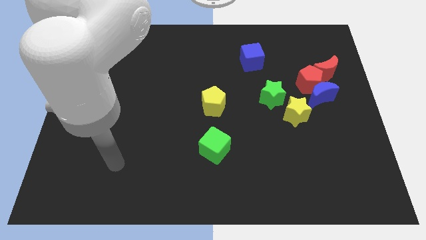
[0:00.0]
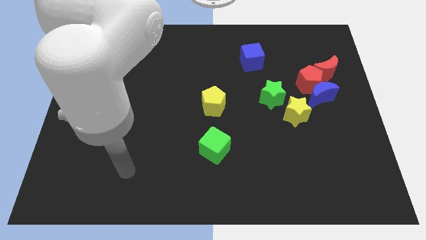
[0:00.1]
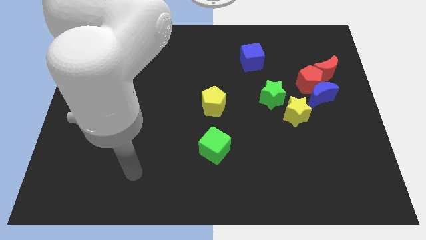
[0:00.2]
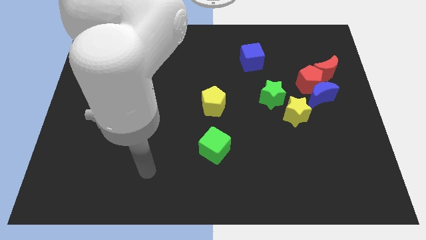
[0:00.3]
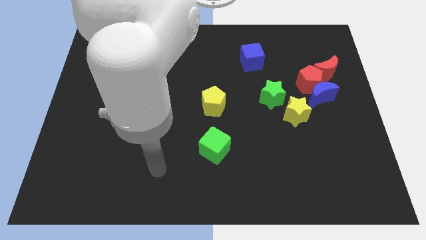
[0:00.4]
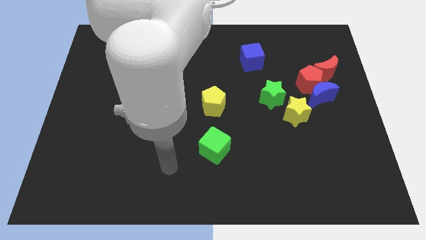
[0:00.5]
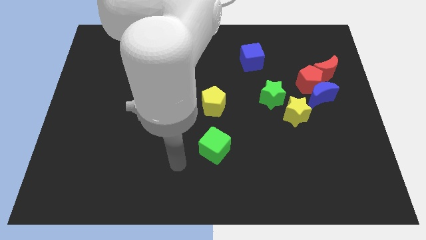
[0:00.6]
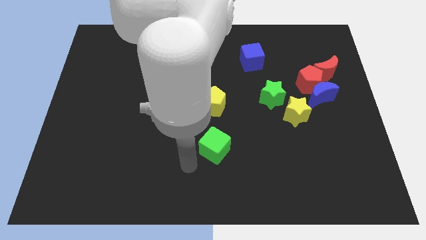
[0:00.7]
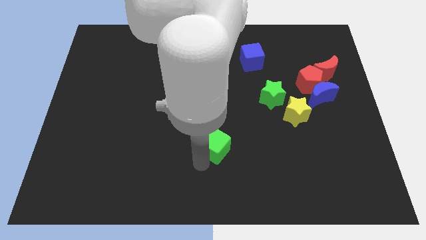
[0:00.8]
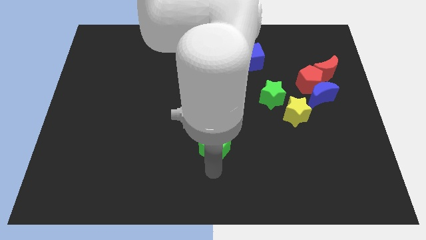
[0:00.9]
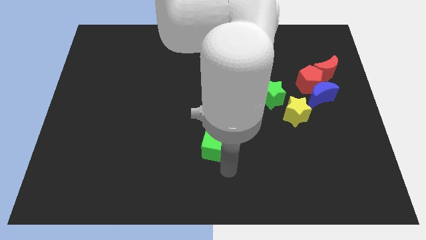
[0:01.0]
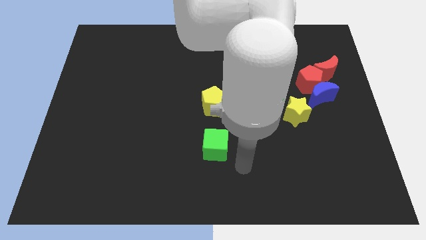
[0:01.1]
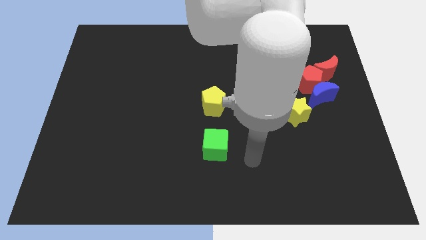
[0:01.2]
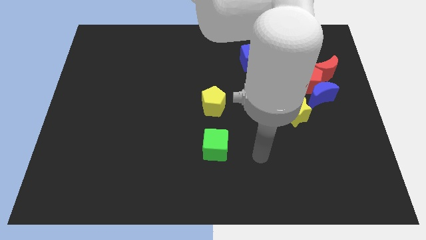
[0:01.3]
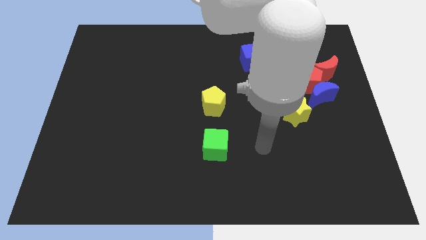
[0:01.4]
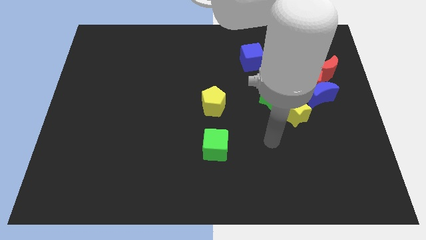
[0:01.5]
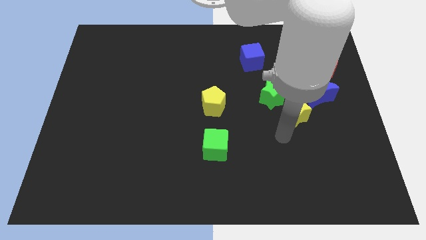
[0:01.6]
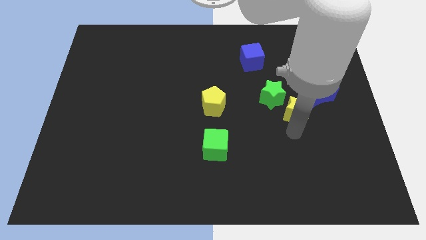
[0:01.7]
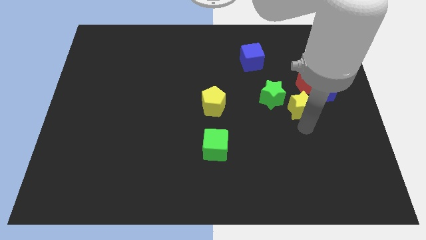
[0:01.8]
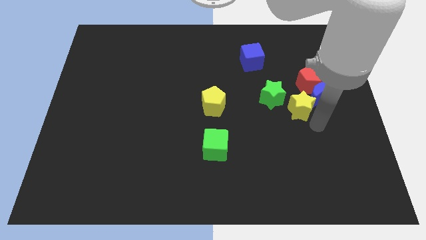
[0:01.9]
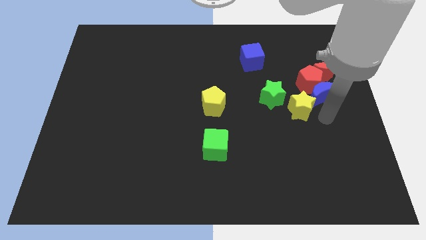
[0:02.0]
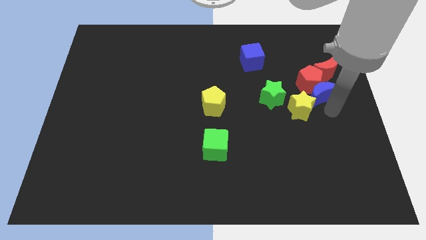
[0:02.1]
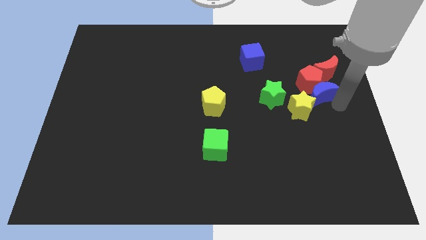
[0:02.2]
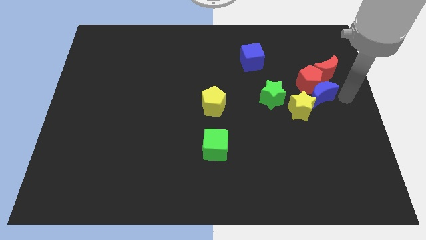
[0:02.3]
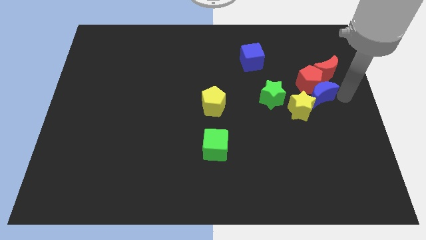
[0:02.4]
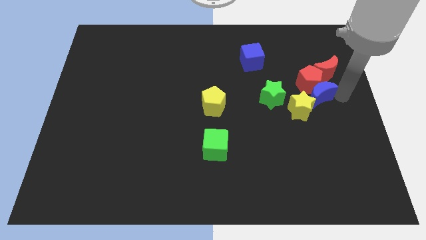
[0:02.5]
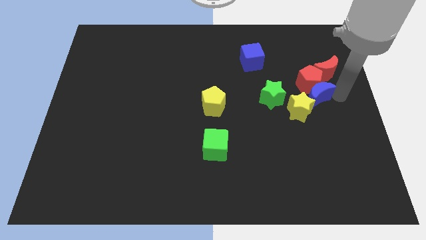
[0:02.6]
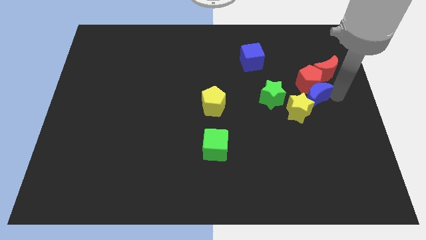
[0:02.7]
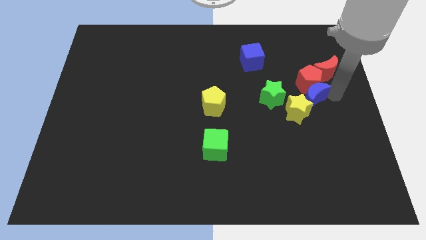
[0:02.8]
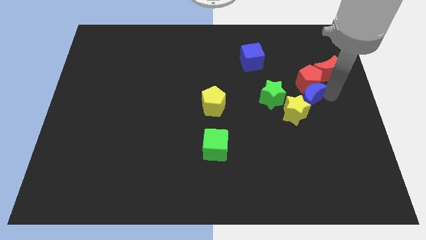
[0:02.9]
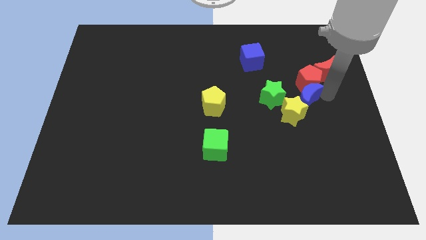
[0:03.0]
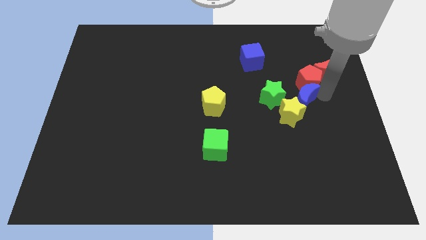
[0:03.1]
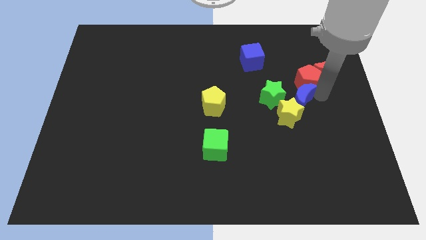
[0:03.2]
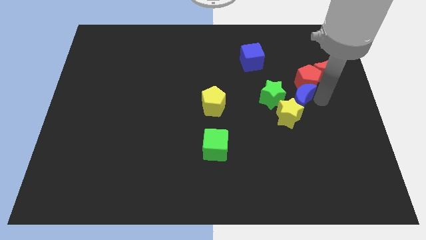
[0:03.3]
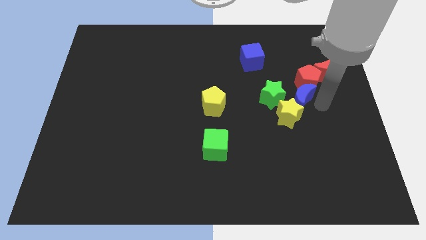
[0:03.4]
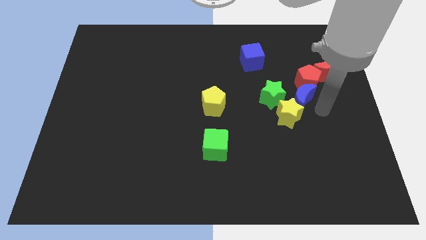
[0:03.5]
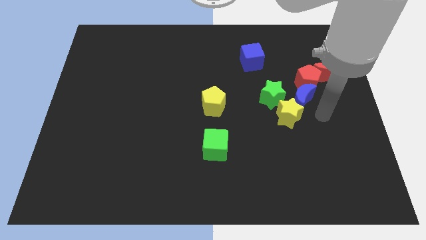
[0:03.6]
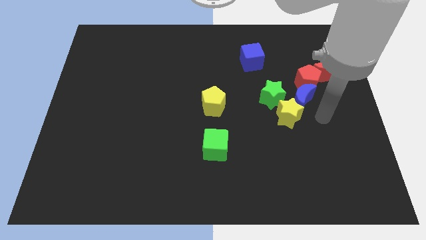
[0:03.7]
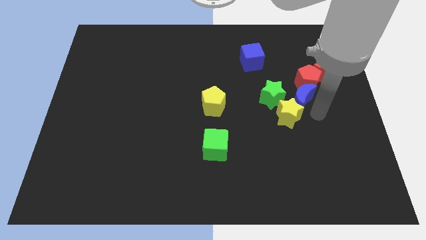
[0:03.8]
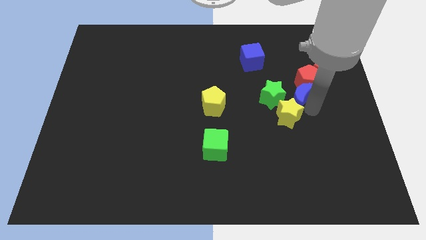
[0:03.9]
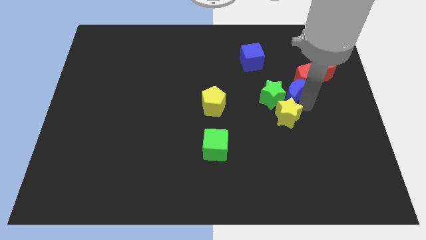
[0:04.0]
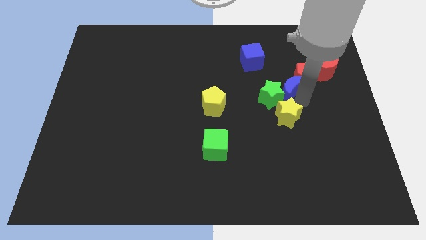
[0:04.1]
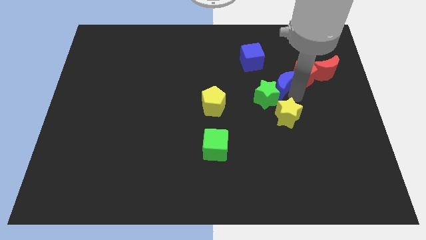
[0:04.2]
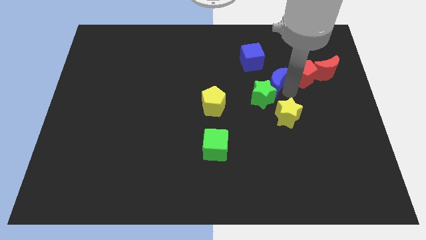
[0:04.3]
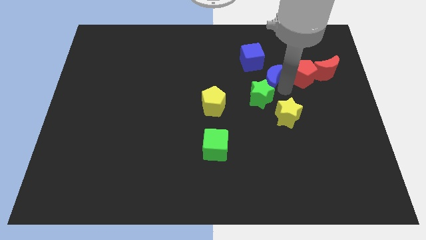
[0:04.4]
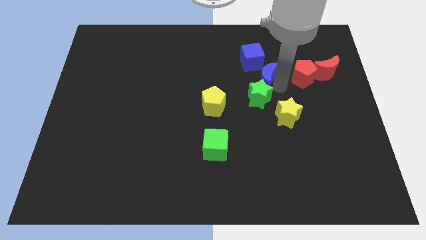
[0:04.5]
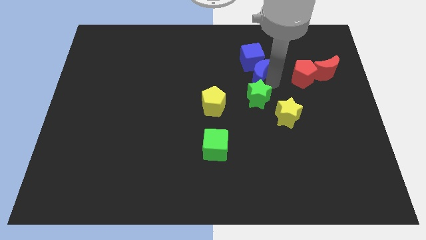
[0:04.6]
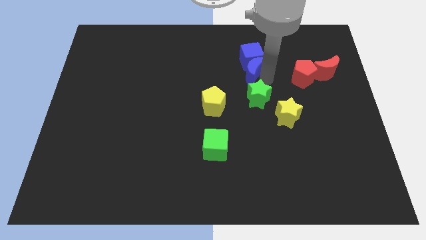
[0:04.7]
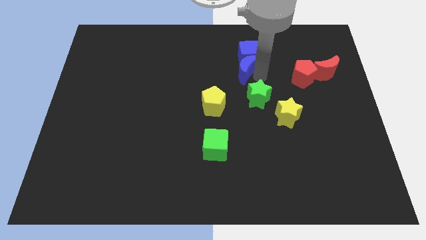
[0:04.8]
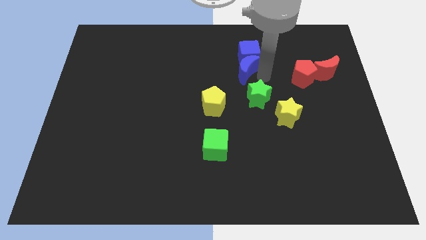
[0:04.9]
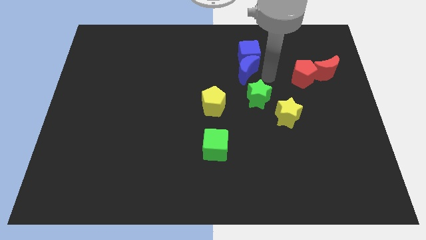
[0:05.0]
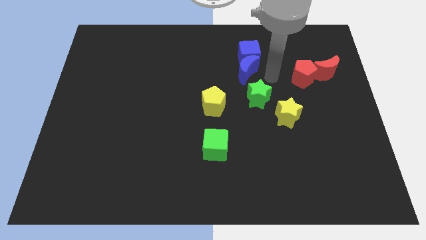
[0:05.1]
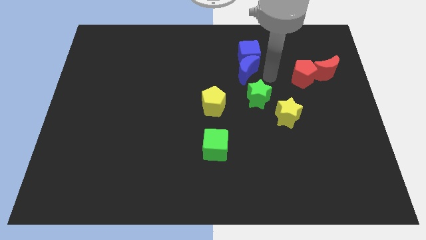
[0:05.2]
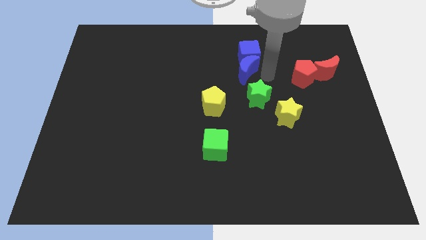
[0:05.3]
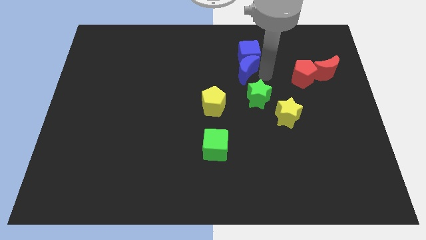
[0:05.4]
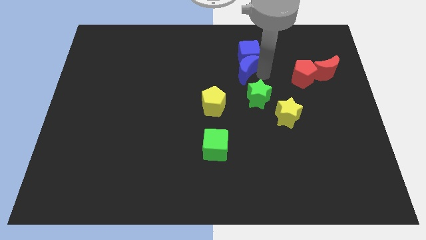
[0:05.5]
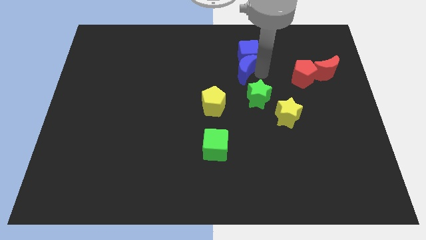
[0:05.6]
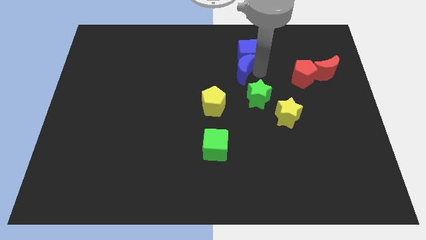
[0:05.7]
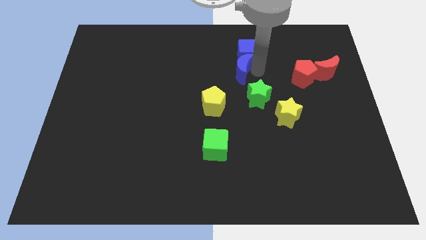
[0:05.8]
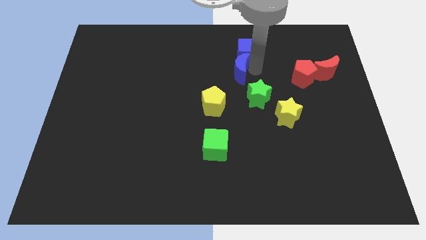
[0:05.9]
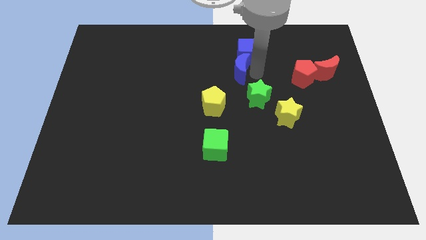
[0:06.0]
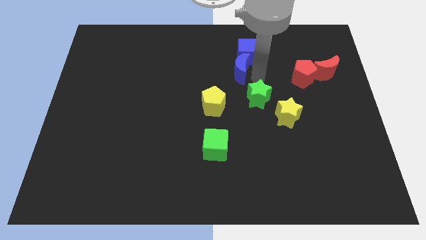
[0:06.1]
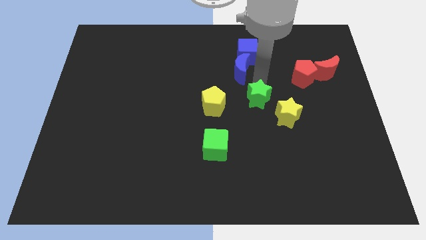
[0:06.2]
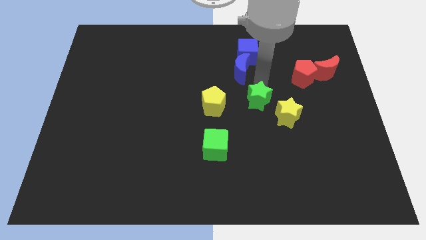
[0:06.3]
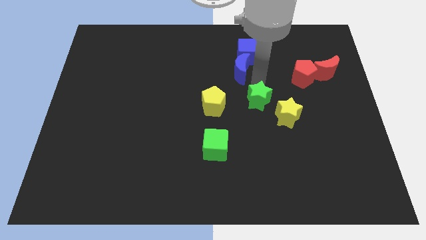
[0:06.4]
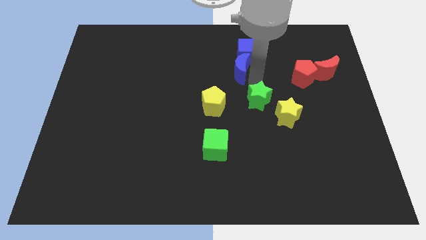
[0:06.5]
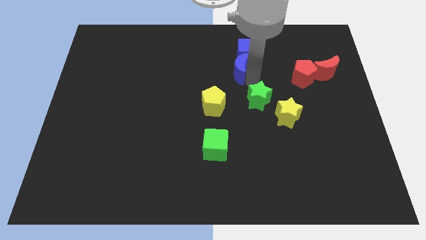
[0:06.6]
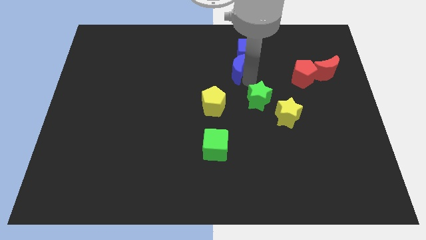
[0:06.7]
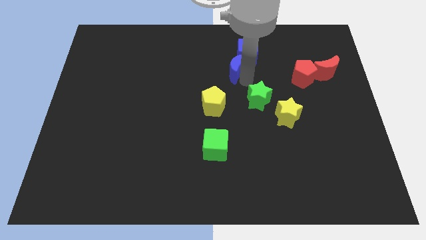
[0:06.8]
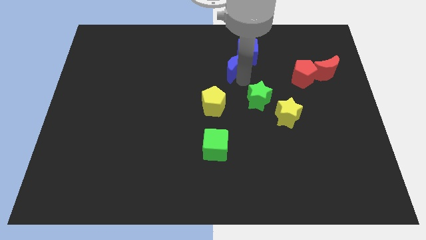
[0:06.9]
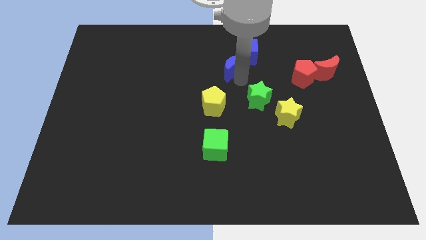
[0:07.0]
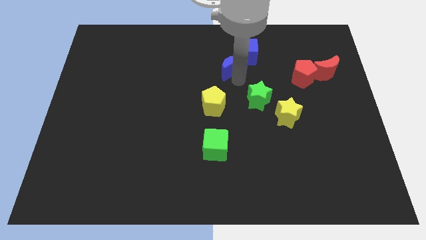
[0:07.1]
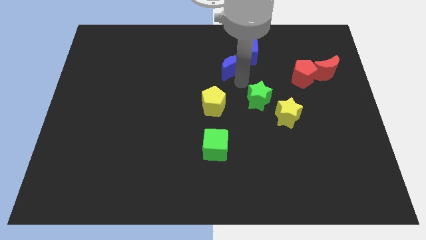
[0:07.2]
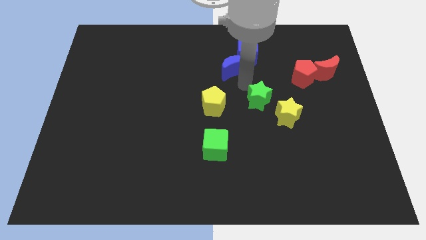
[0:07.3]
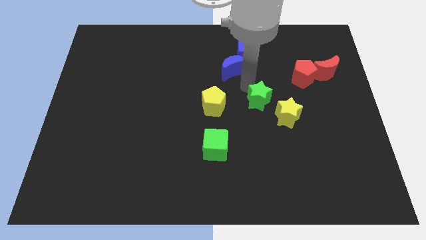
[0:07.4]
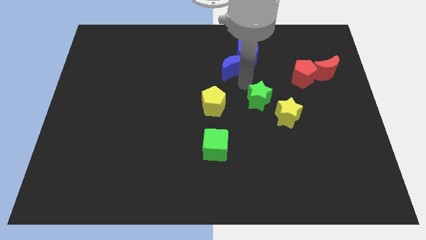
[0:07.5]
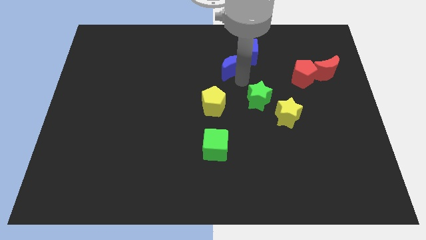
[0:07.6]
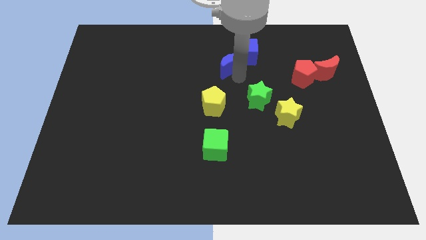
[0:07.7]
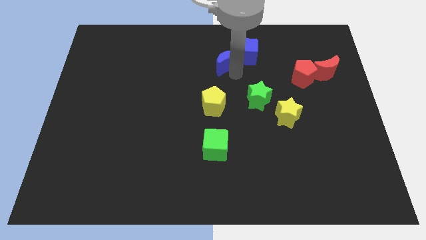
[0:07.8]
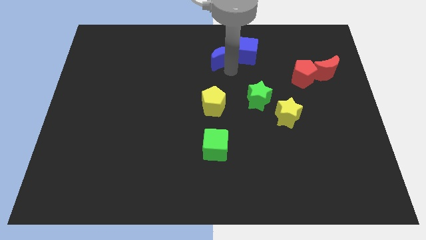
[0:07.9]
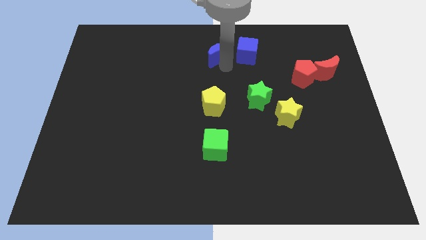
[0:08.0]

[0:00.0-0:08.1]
put the blue moon to the top
